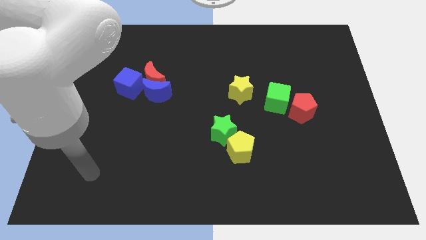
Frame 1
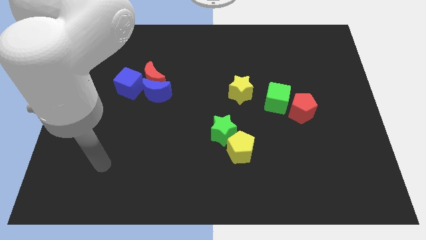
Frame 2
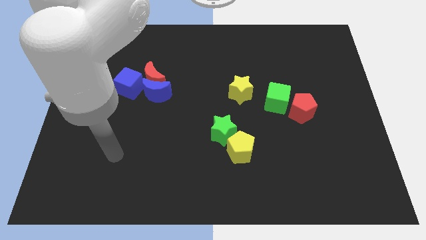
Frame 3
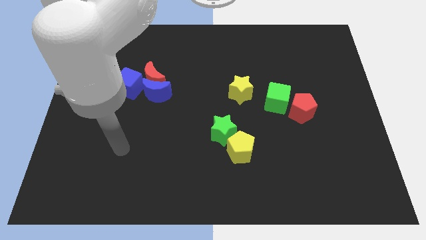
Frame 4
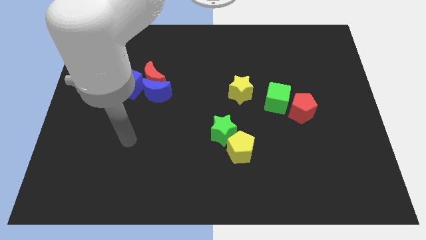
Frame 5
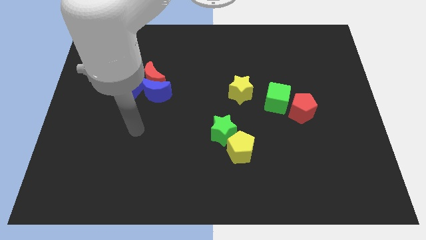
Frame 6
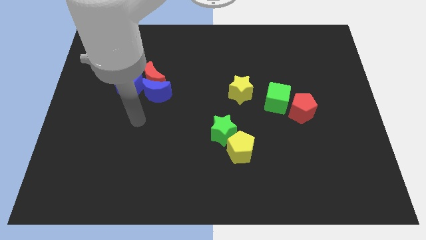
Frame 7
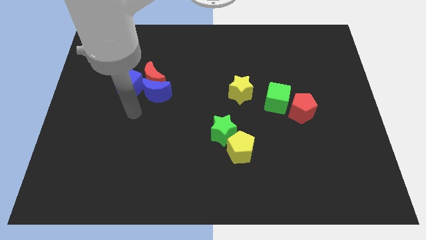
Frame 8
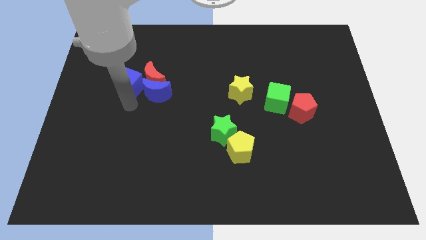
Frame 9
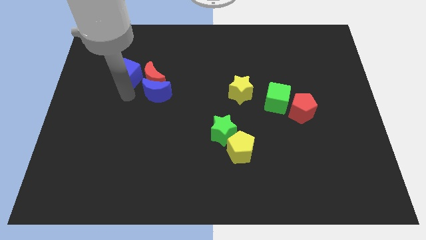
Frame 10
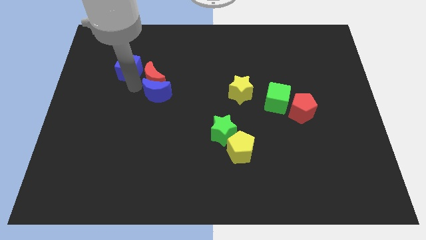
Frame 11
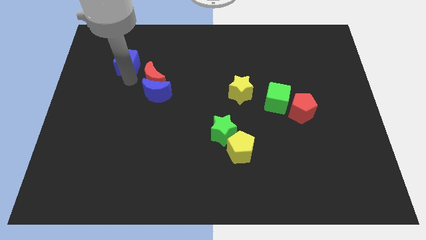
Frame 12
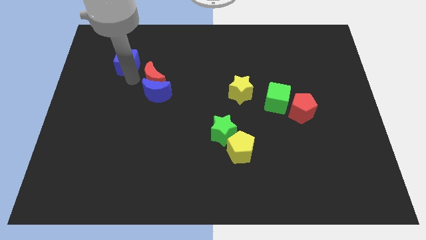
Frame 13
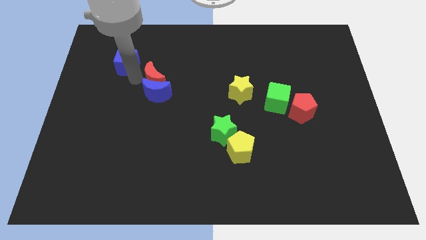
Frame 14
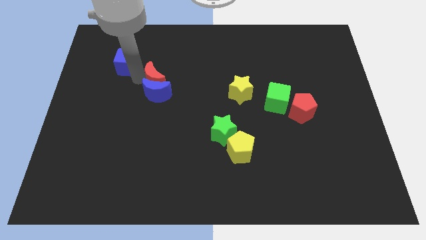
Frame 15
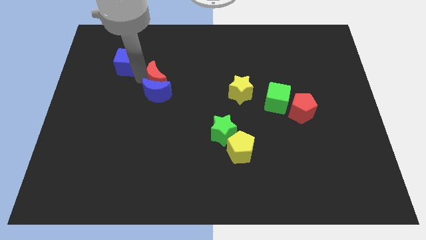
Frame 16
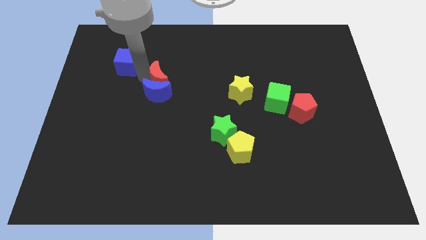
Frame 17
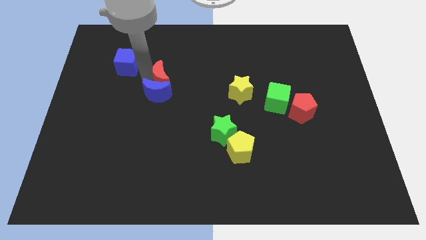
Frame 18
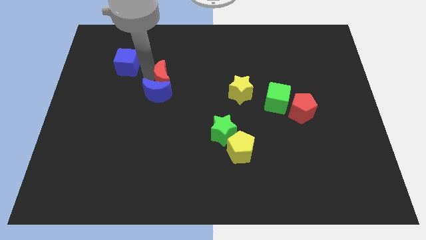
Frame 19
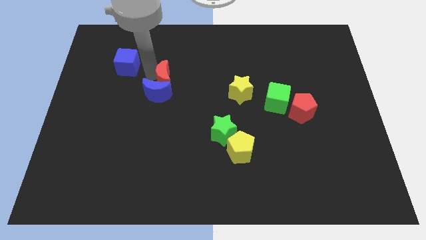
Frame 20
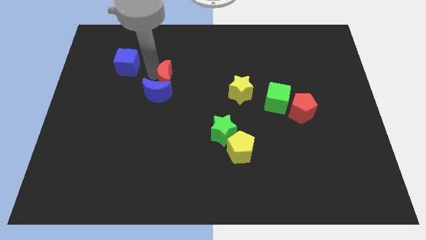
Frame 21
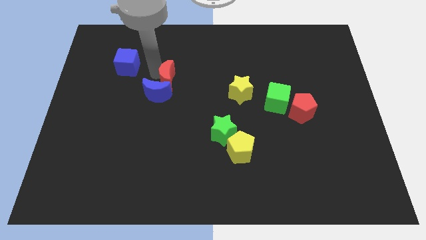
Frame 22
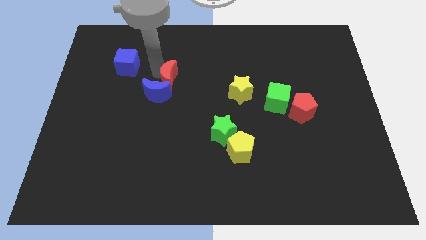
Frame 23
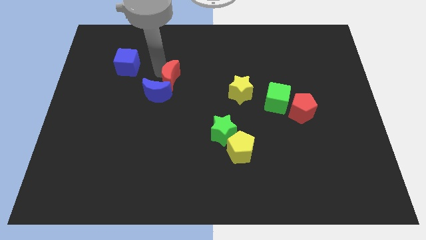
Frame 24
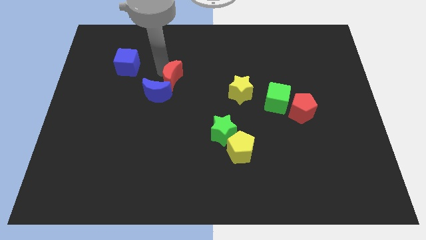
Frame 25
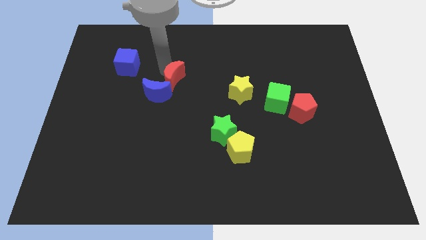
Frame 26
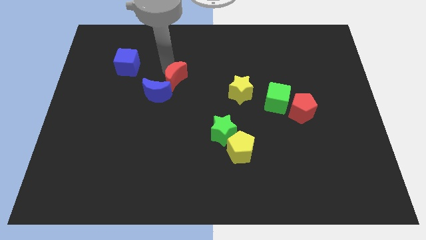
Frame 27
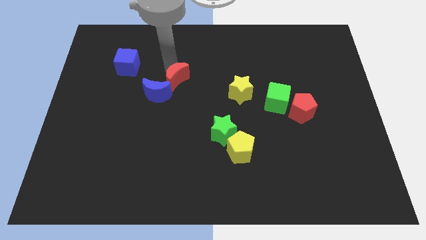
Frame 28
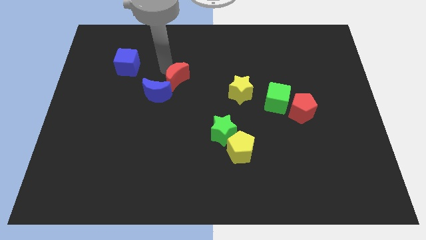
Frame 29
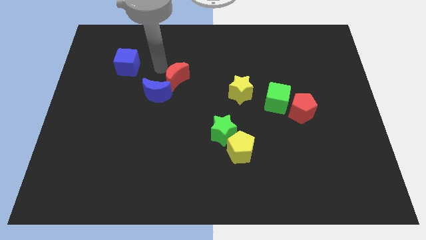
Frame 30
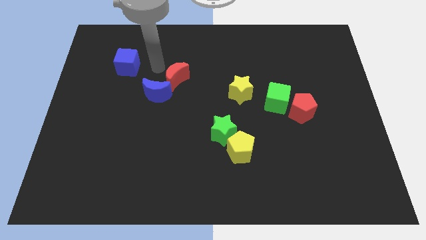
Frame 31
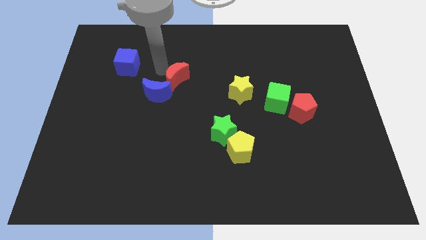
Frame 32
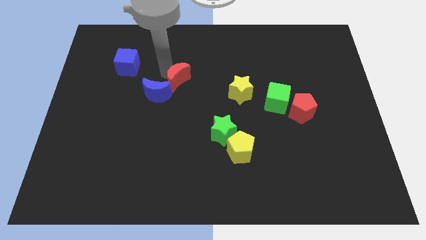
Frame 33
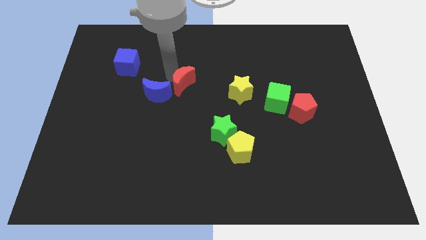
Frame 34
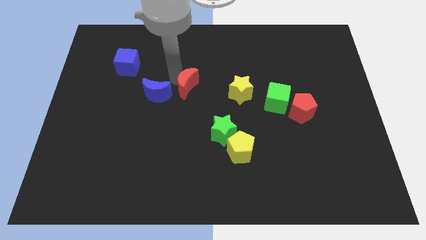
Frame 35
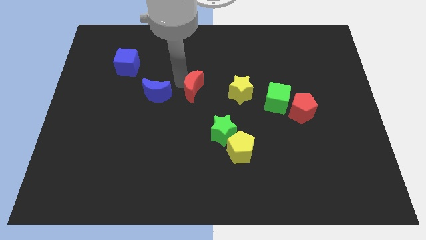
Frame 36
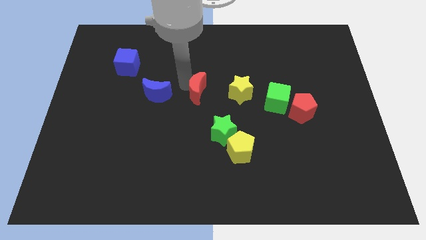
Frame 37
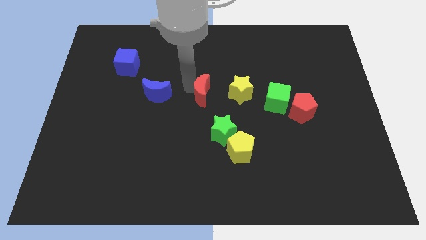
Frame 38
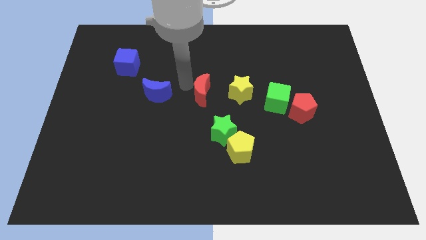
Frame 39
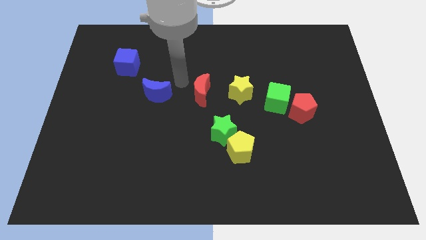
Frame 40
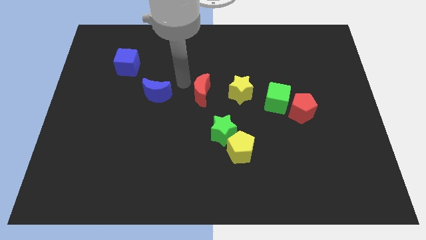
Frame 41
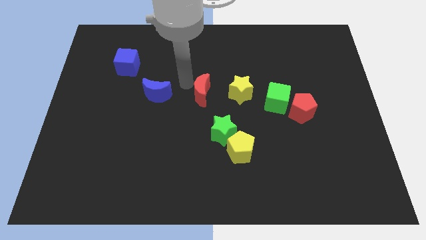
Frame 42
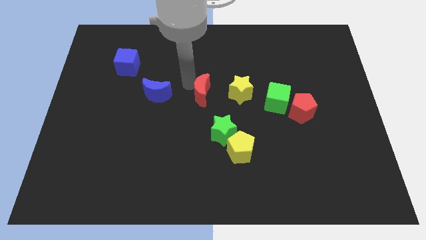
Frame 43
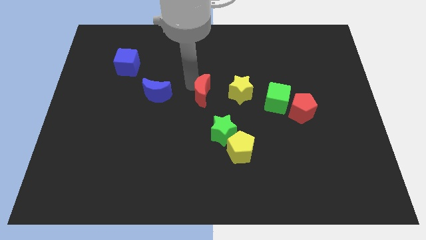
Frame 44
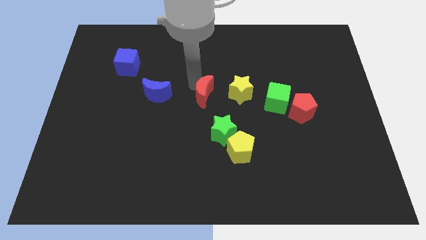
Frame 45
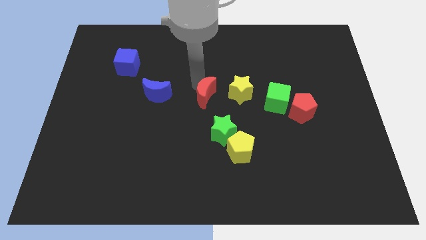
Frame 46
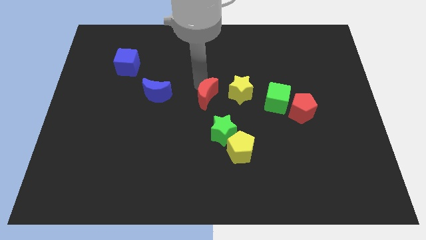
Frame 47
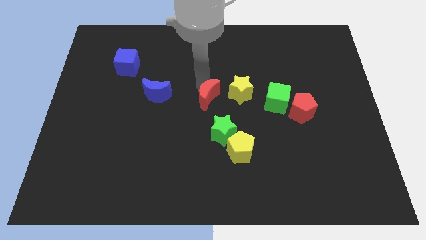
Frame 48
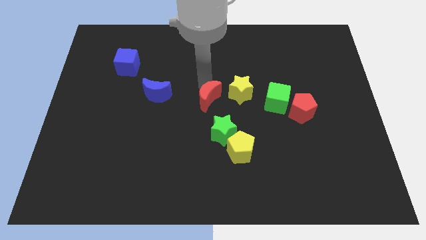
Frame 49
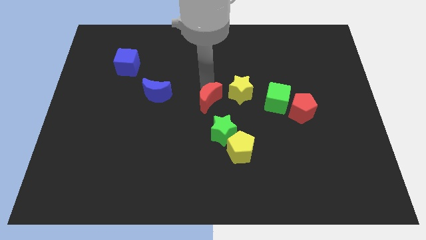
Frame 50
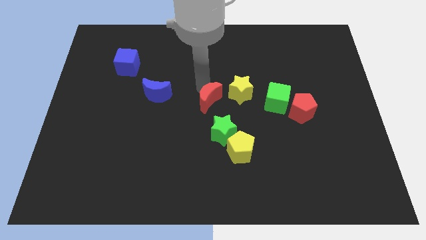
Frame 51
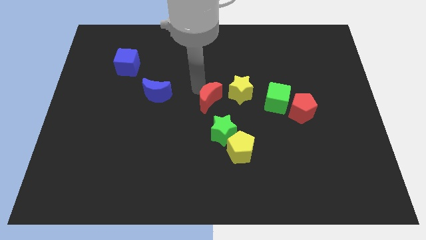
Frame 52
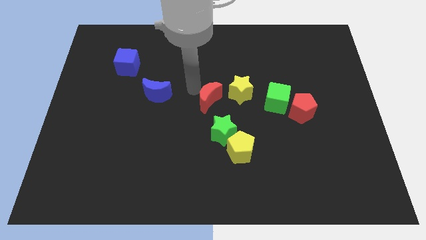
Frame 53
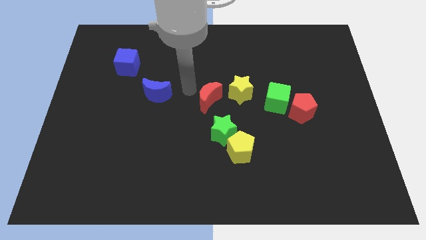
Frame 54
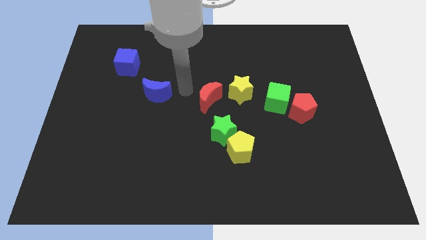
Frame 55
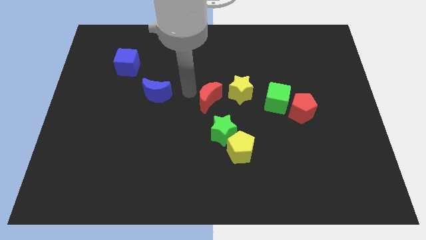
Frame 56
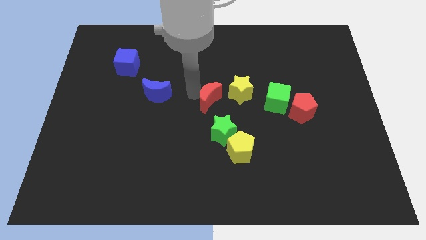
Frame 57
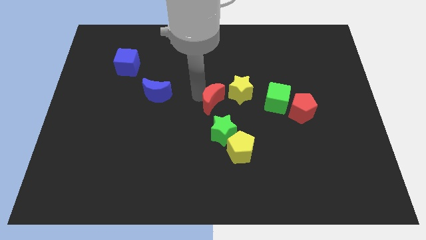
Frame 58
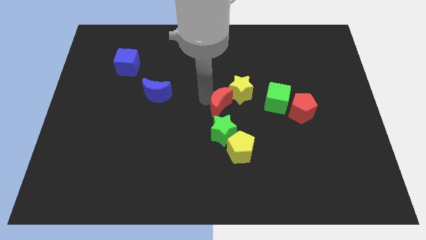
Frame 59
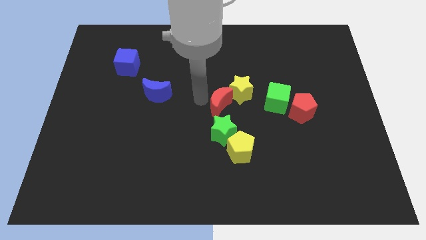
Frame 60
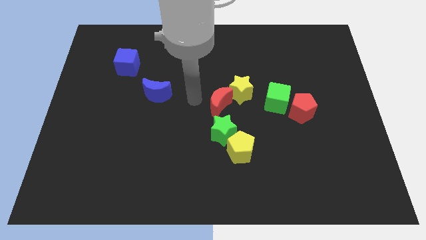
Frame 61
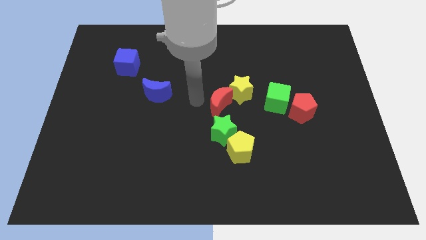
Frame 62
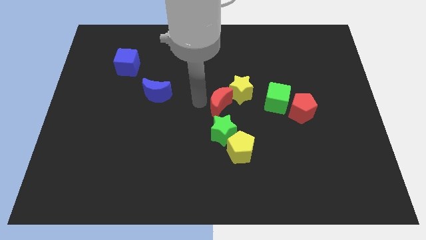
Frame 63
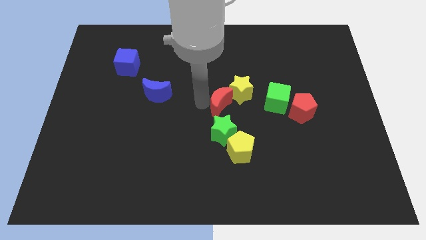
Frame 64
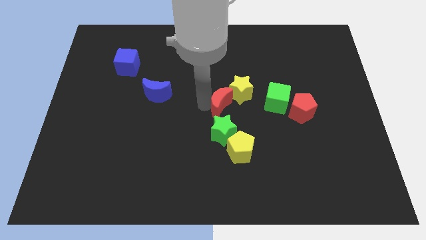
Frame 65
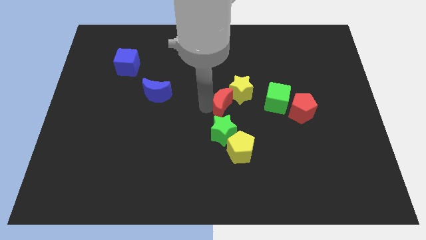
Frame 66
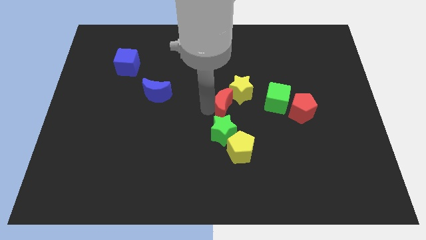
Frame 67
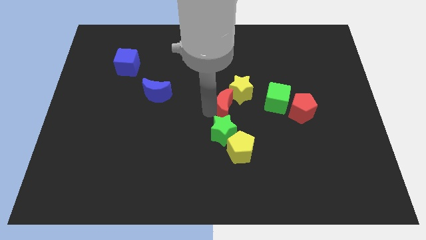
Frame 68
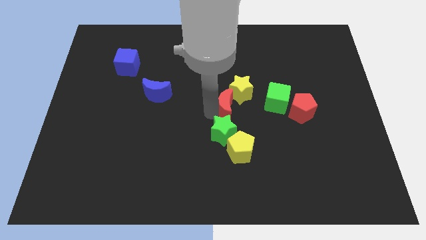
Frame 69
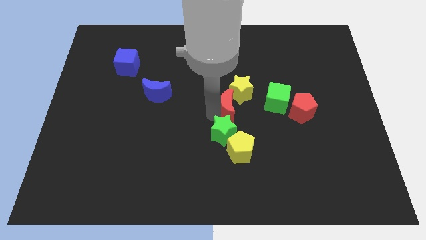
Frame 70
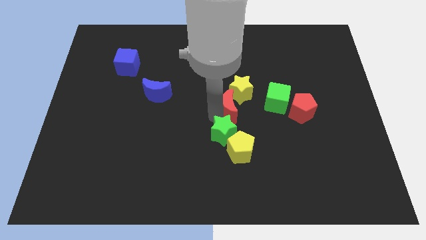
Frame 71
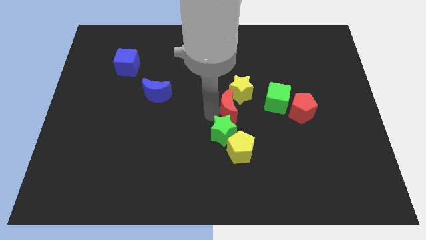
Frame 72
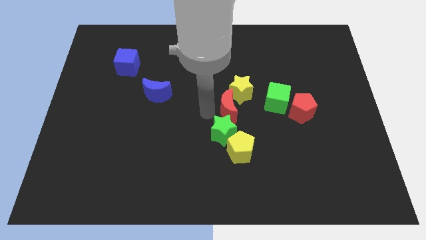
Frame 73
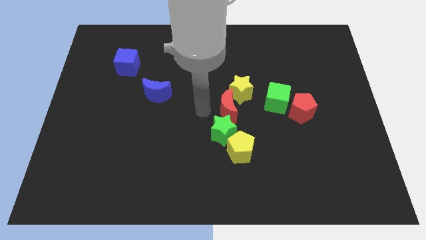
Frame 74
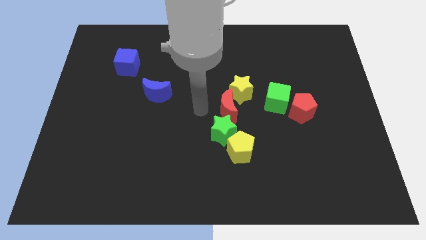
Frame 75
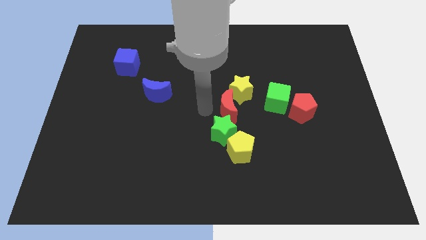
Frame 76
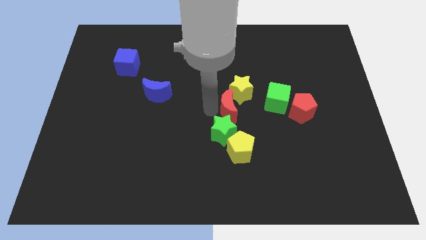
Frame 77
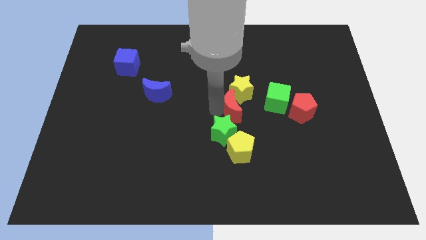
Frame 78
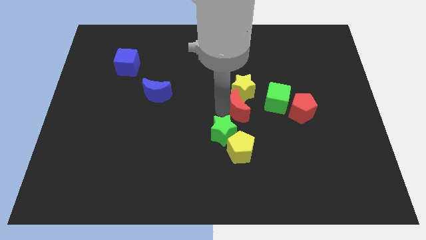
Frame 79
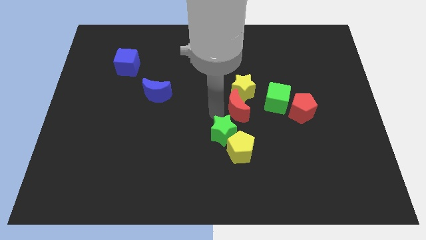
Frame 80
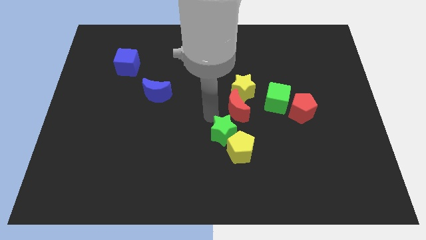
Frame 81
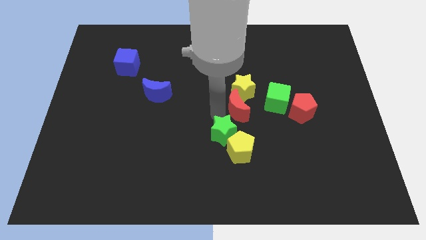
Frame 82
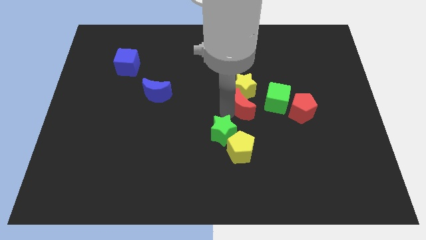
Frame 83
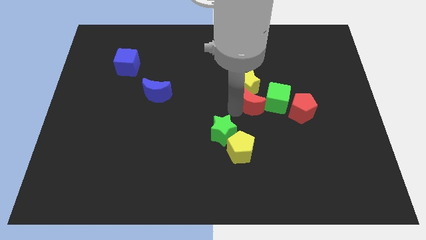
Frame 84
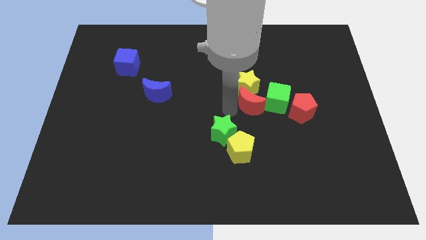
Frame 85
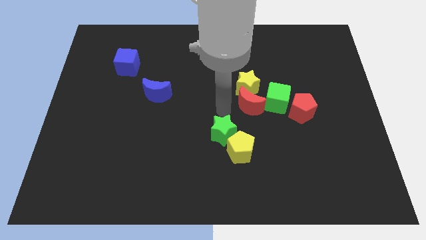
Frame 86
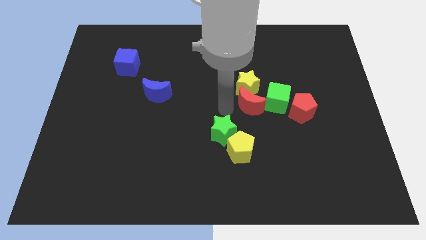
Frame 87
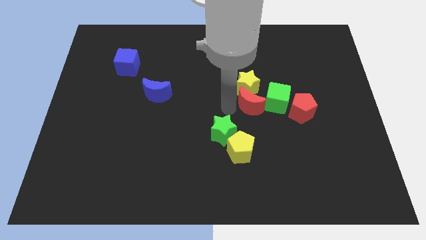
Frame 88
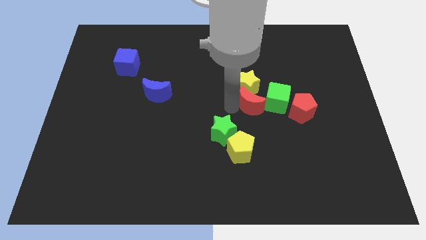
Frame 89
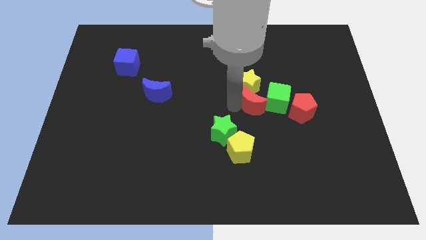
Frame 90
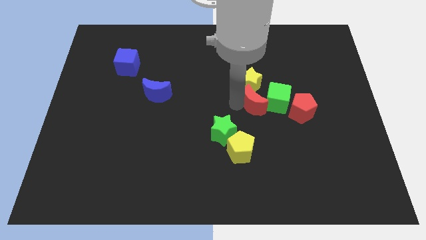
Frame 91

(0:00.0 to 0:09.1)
move the red moon towards the green cube
